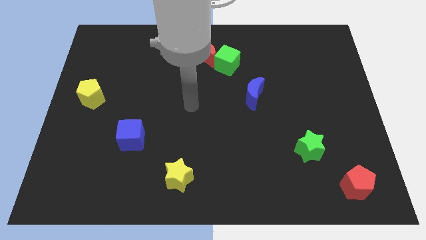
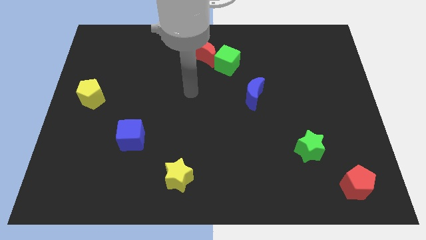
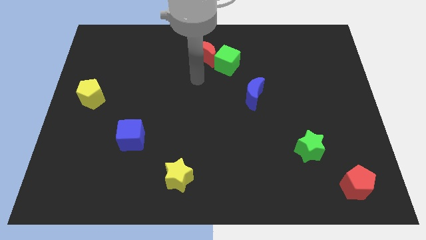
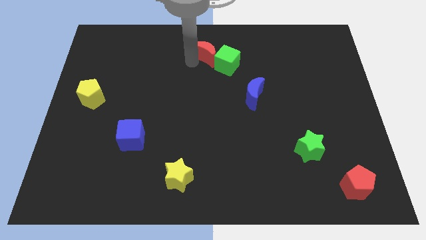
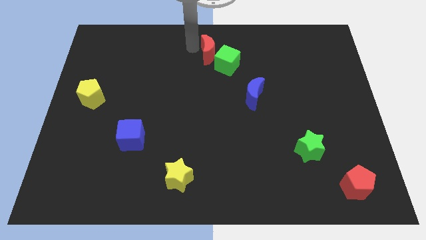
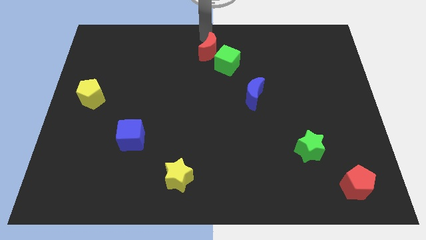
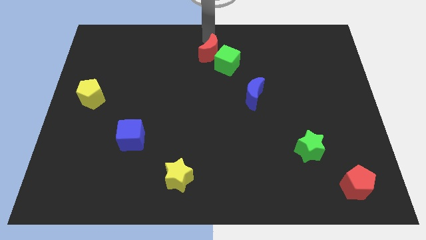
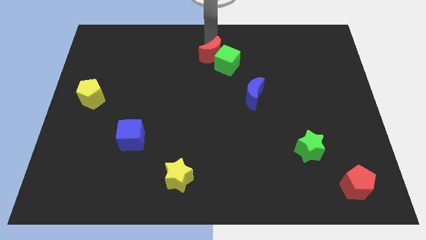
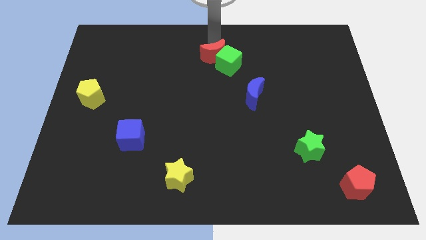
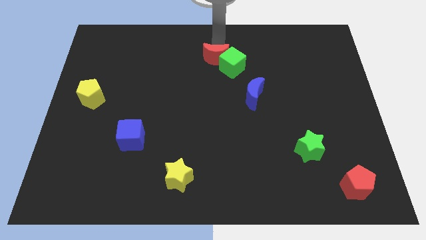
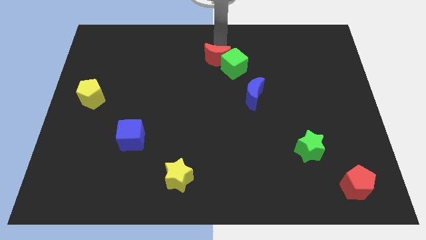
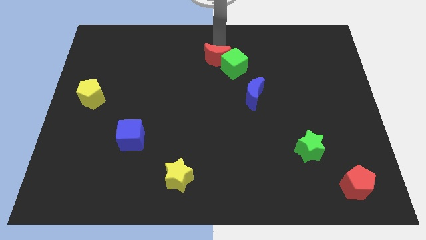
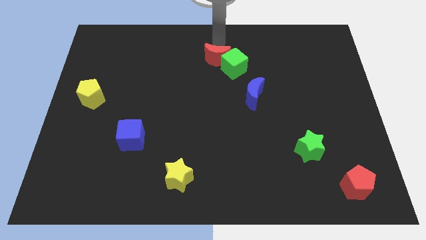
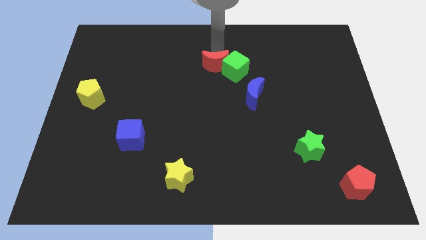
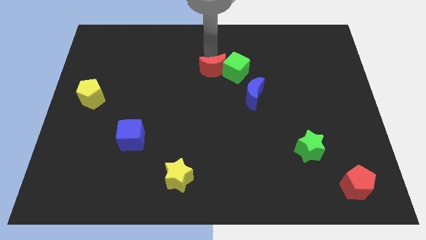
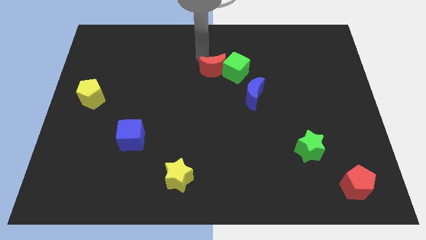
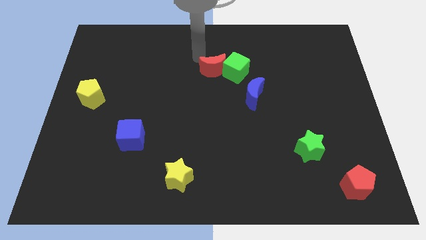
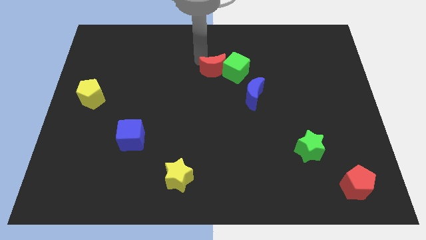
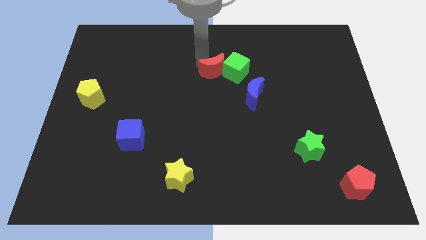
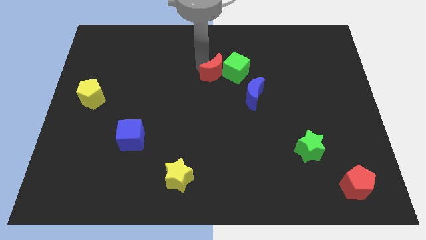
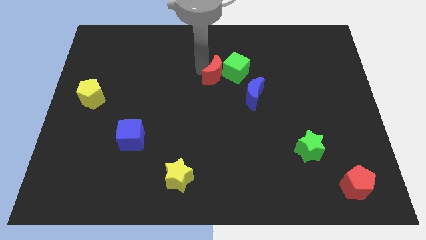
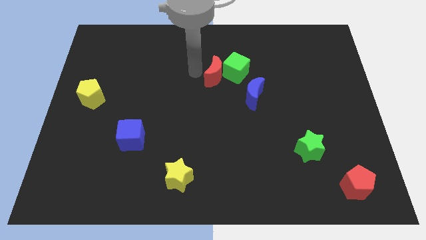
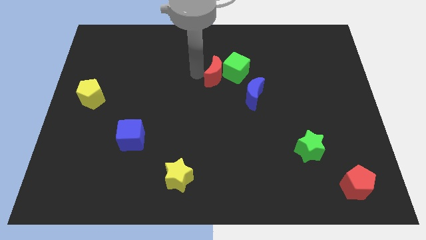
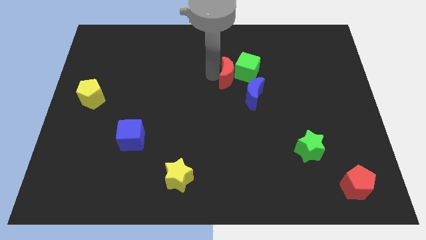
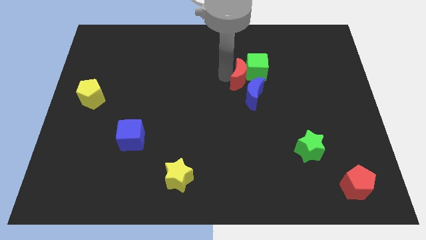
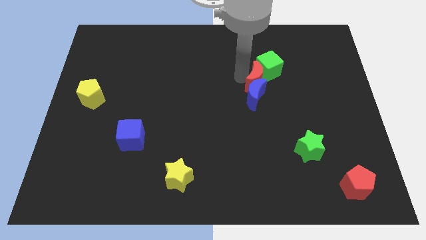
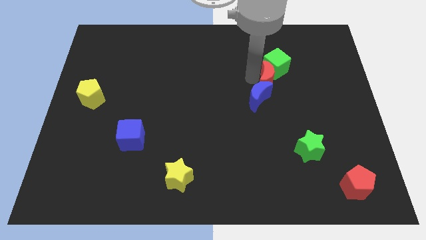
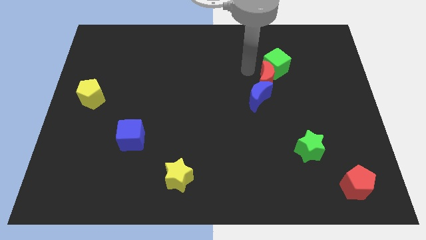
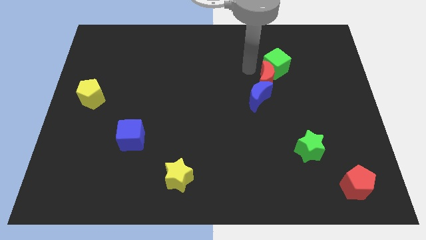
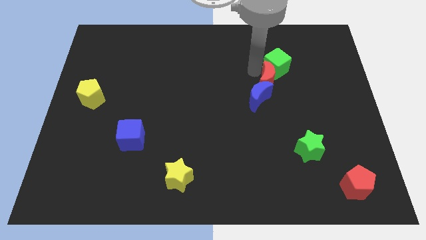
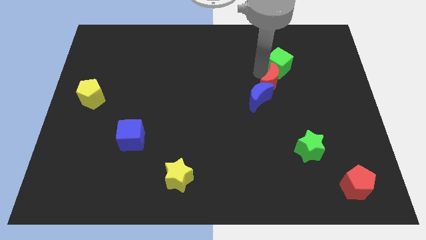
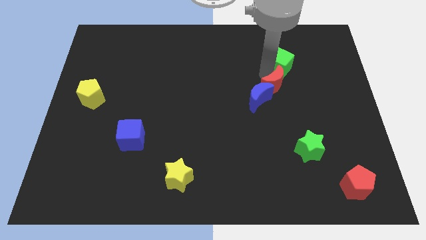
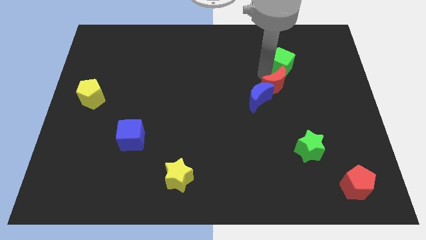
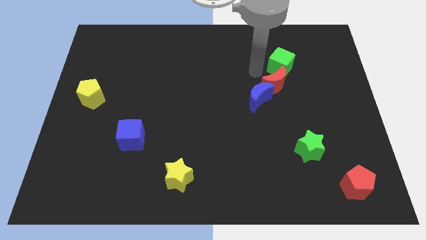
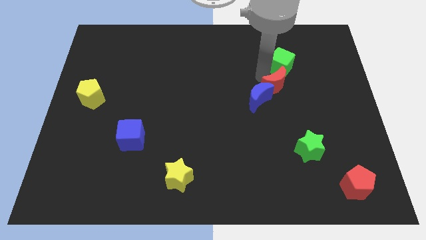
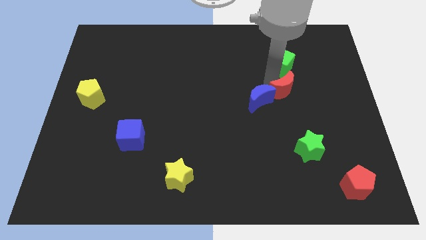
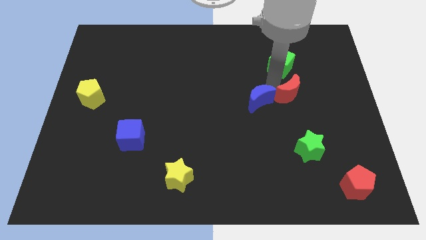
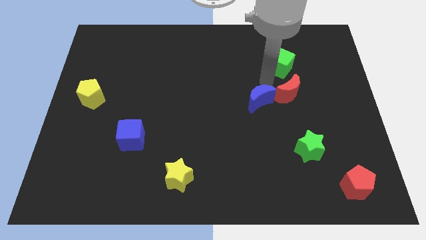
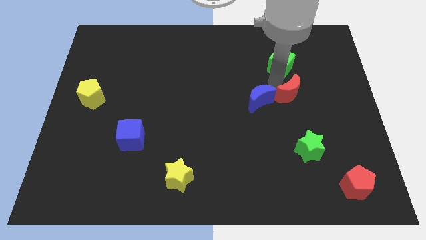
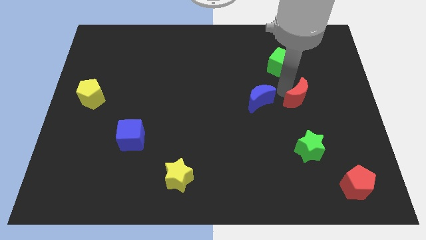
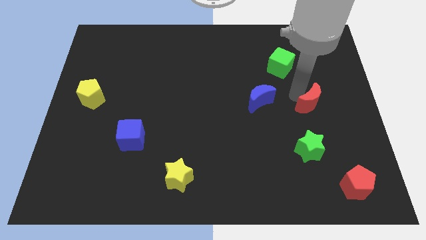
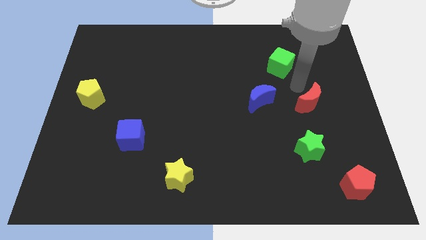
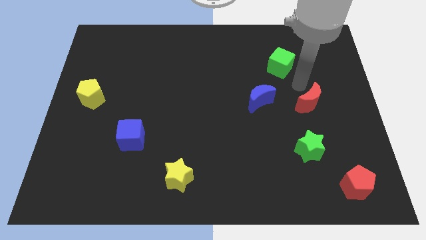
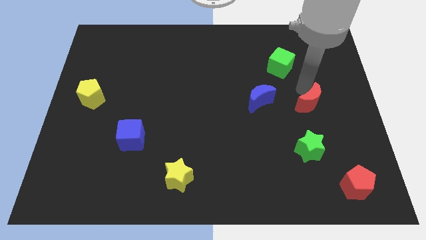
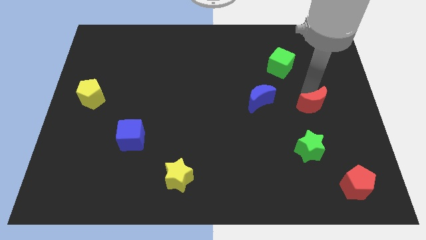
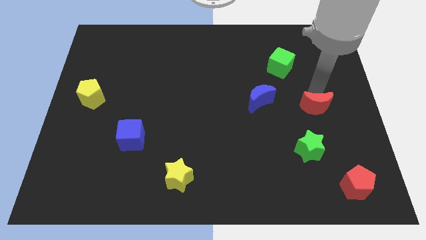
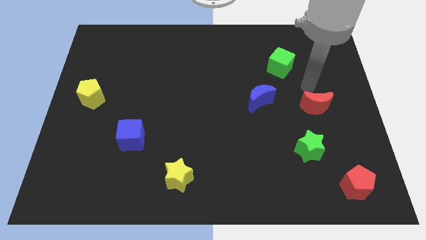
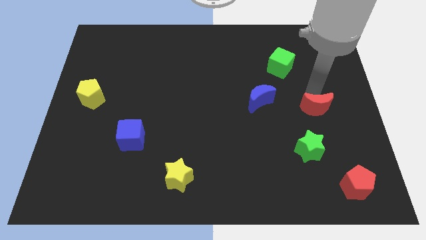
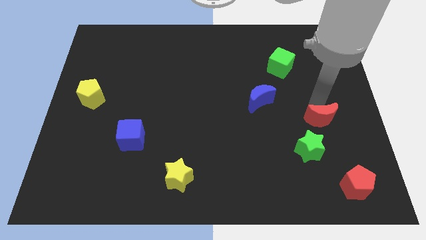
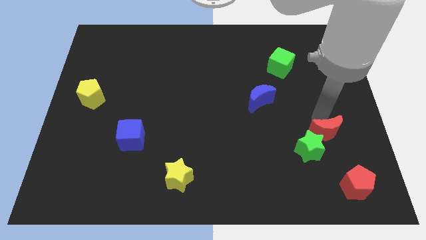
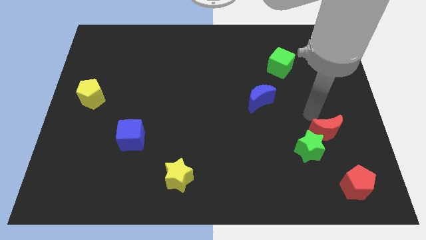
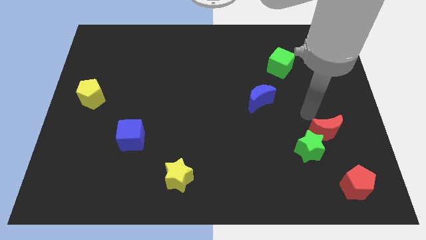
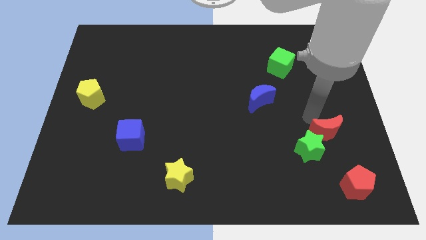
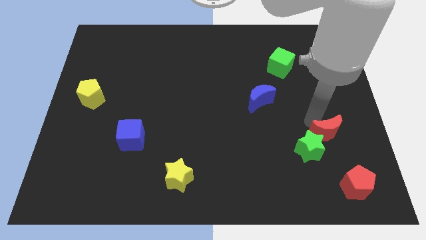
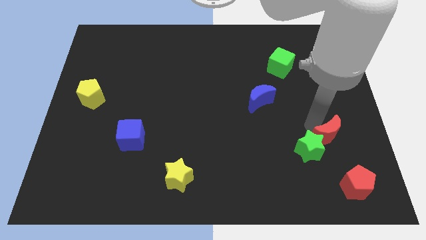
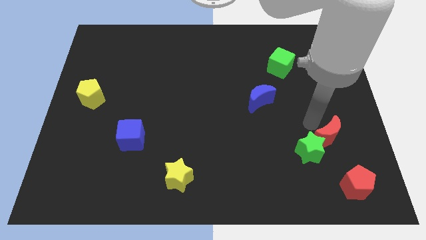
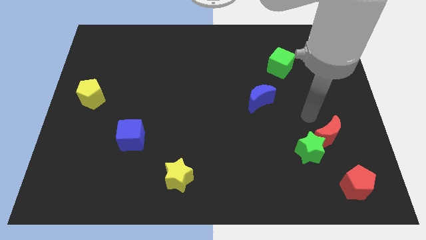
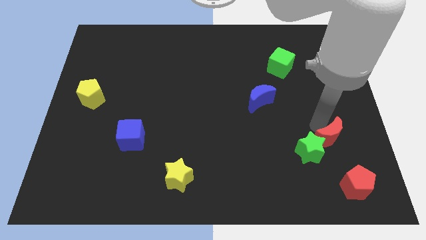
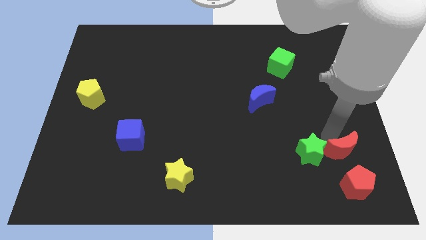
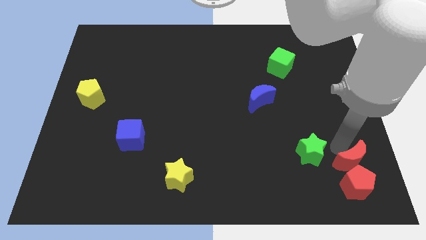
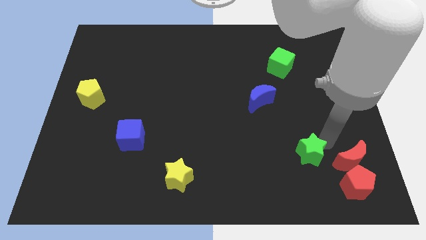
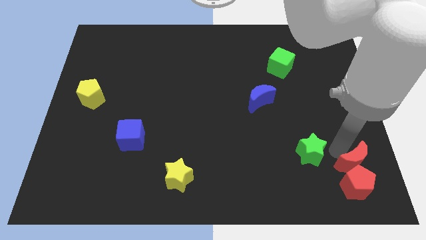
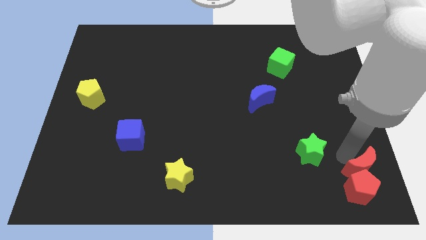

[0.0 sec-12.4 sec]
push the red moon to the bottom right corner
